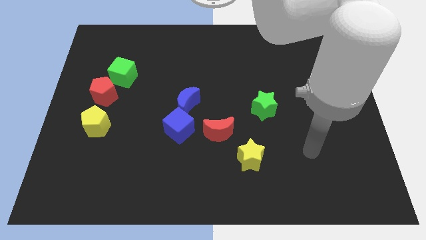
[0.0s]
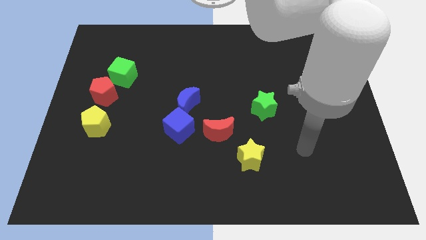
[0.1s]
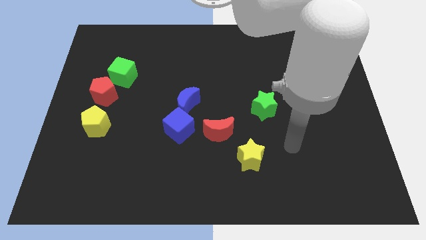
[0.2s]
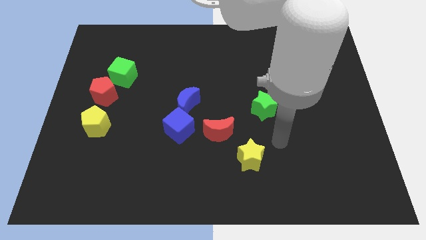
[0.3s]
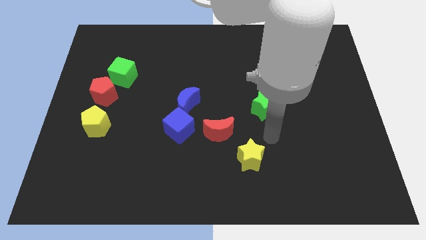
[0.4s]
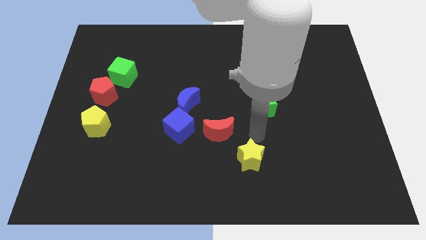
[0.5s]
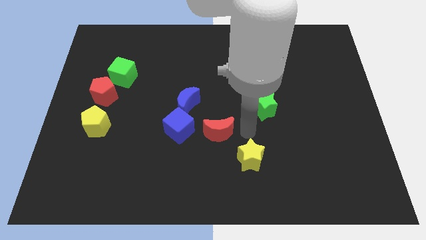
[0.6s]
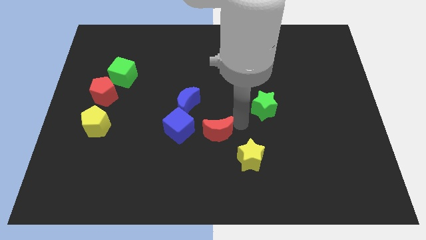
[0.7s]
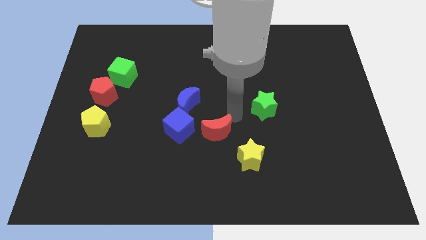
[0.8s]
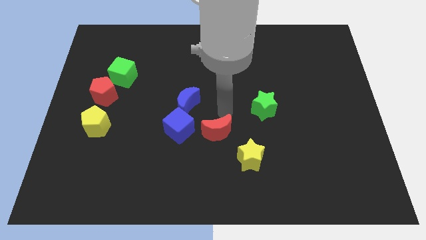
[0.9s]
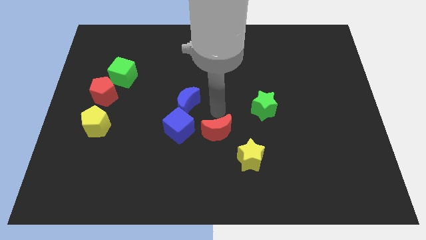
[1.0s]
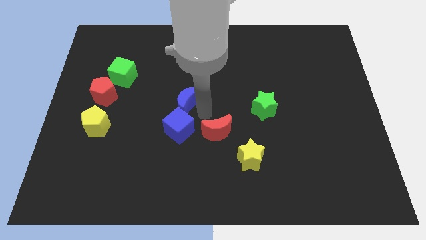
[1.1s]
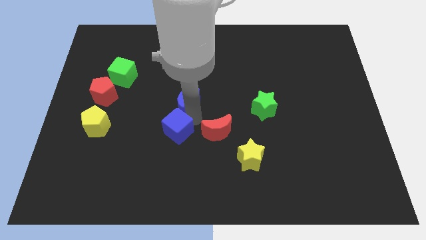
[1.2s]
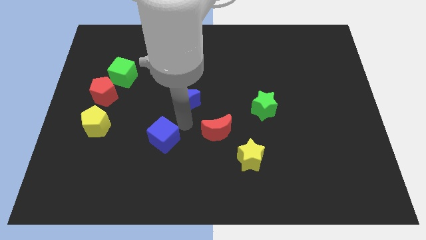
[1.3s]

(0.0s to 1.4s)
pull the blue moon apart from the blue cube

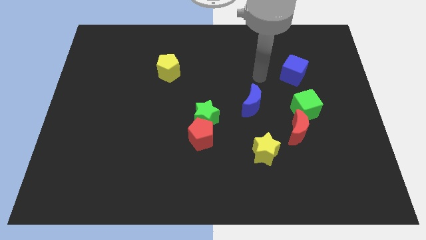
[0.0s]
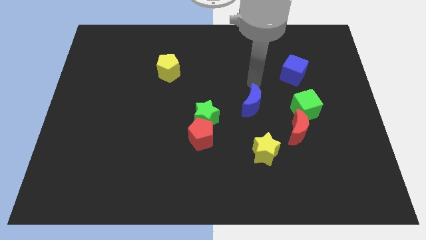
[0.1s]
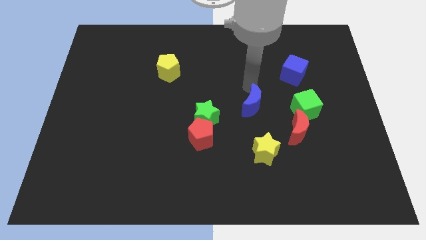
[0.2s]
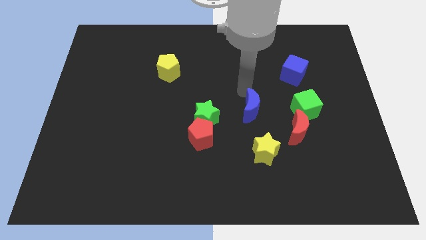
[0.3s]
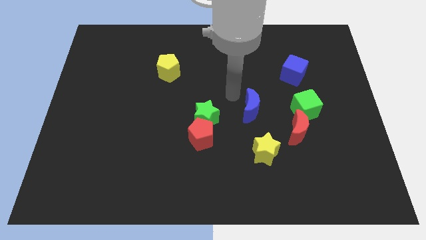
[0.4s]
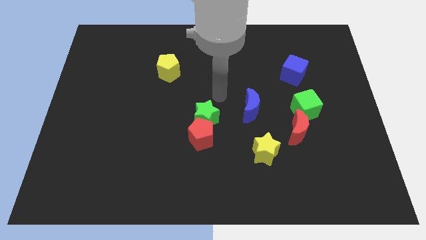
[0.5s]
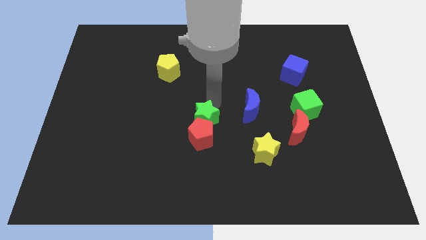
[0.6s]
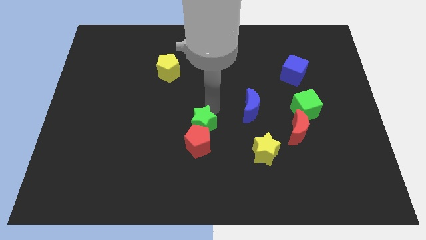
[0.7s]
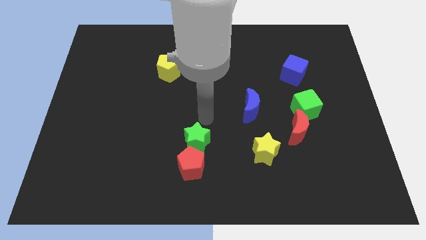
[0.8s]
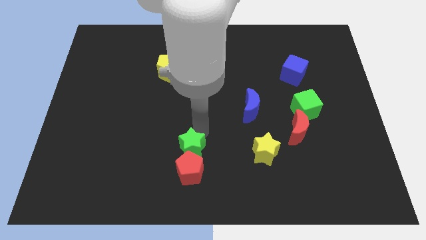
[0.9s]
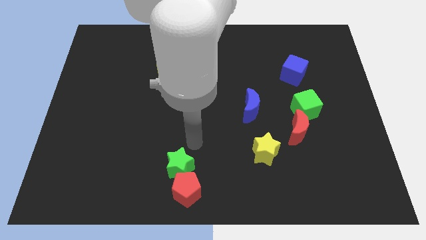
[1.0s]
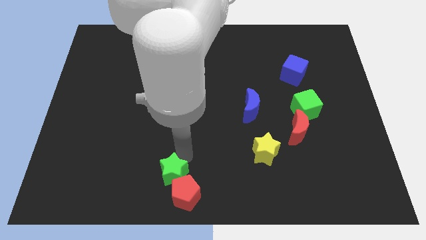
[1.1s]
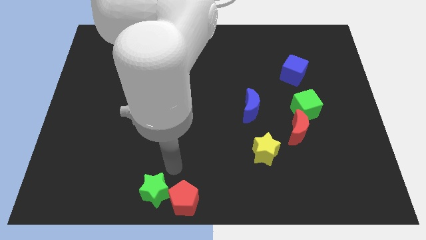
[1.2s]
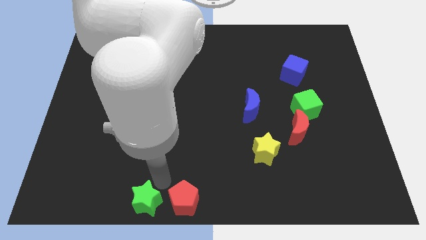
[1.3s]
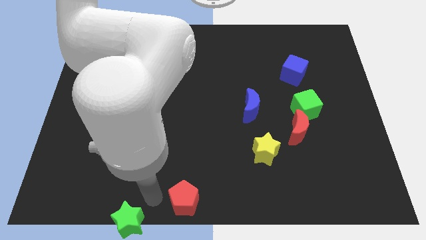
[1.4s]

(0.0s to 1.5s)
move the red pentagon away from the green star

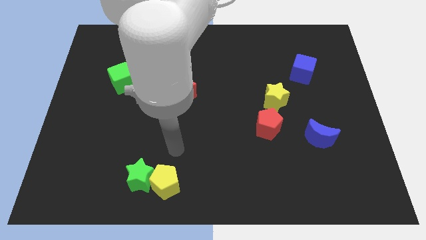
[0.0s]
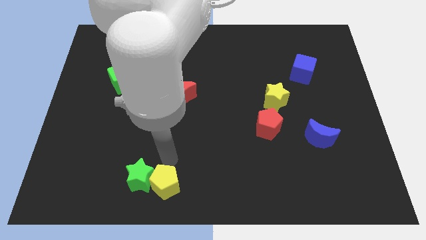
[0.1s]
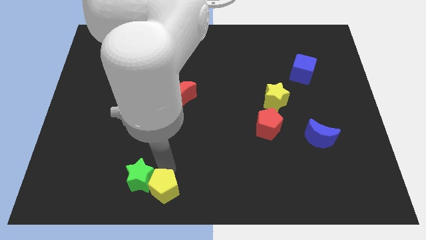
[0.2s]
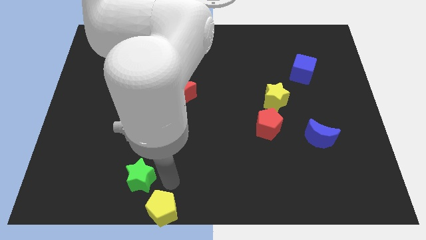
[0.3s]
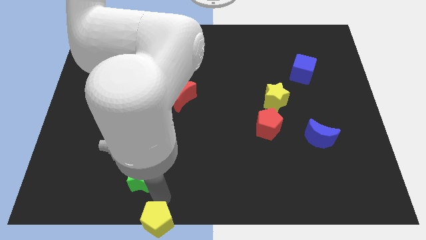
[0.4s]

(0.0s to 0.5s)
separate the green star from the yellow pentagon

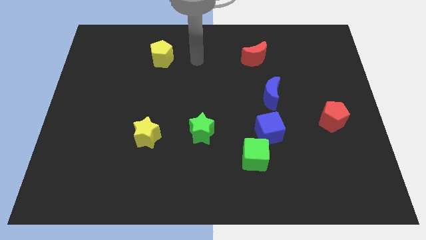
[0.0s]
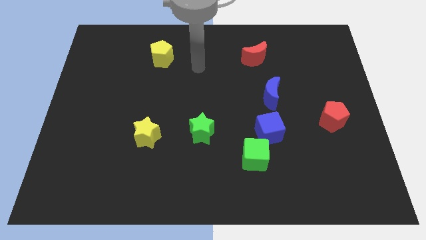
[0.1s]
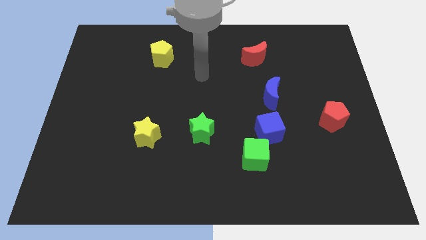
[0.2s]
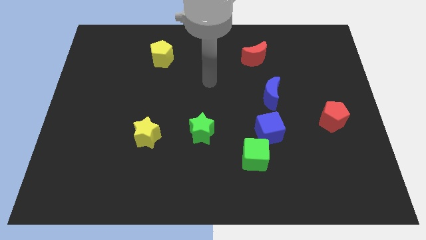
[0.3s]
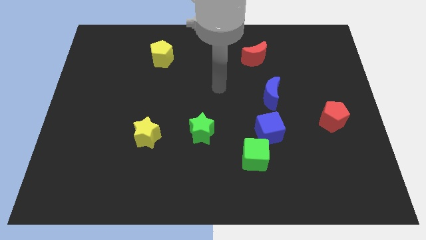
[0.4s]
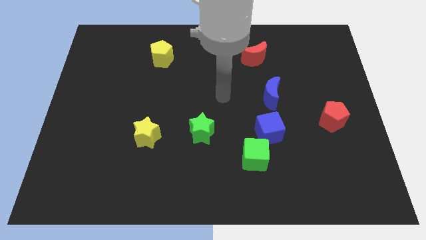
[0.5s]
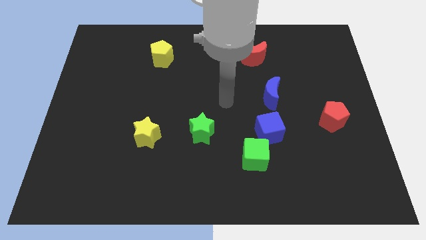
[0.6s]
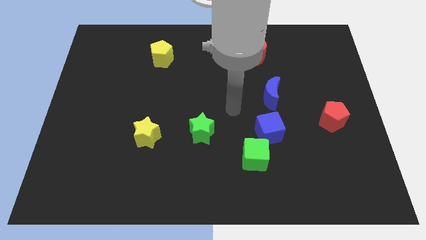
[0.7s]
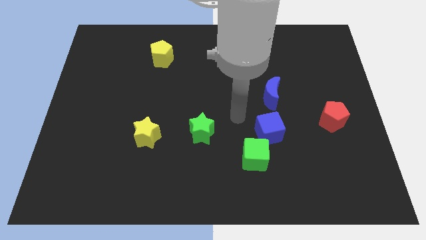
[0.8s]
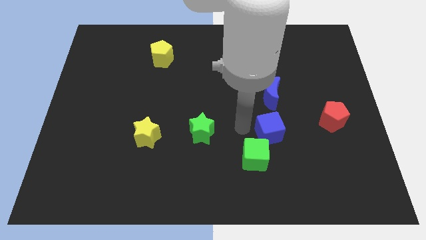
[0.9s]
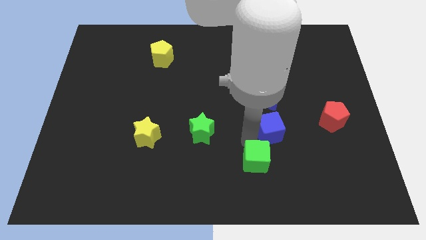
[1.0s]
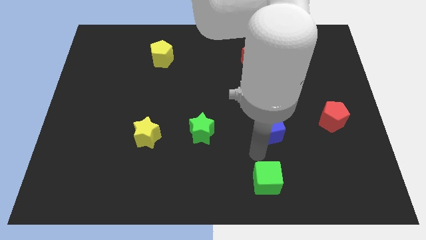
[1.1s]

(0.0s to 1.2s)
pull the blue cube apart from the green cube

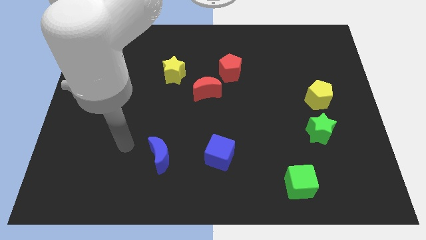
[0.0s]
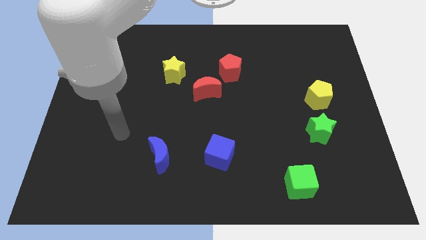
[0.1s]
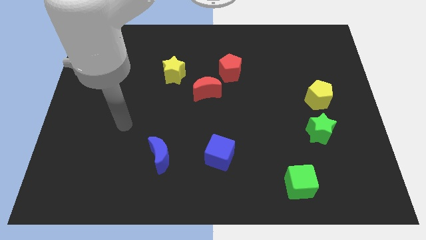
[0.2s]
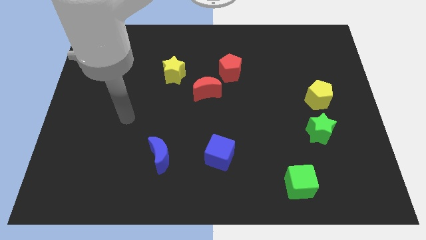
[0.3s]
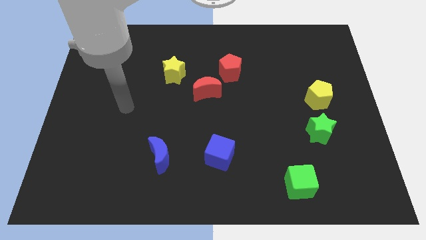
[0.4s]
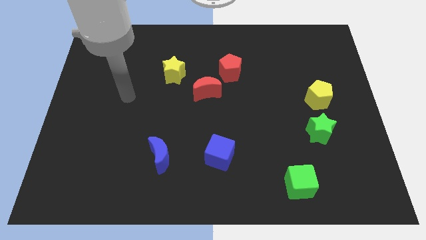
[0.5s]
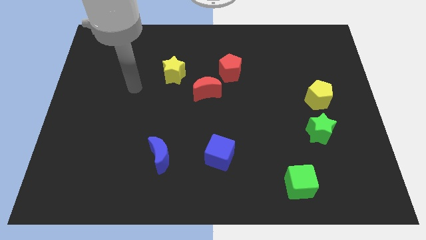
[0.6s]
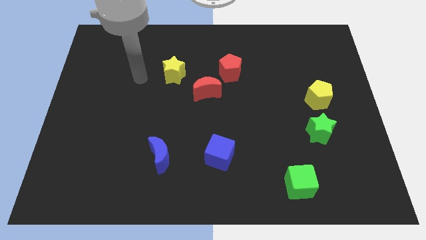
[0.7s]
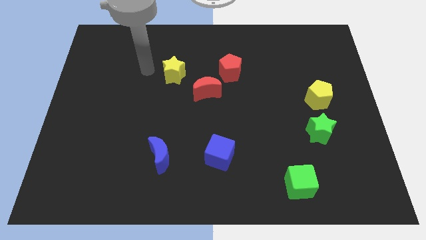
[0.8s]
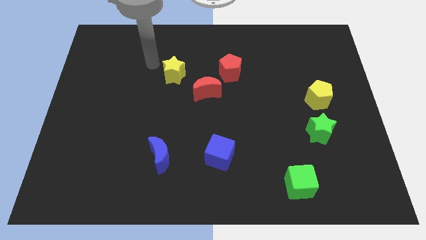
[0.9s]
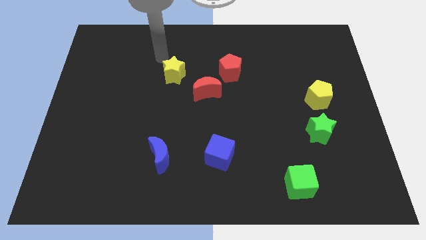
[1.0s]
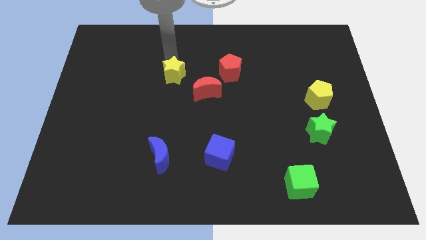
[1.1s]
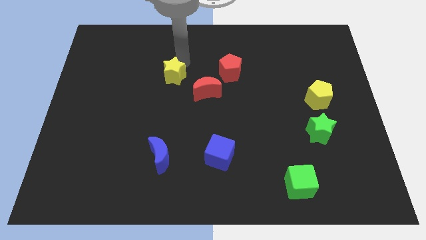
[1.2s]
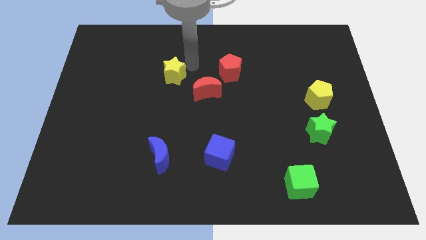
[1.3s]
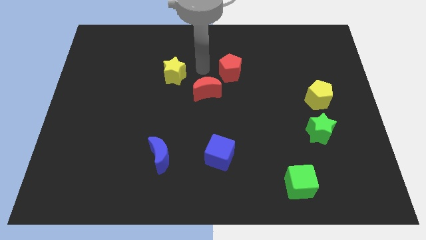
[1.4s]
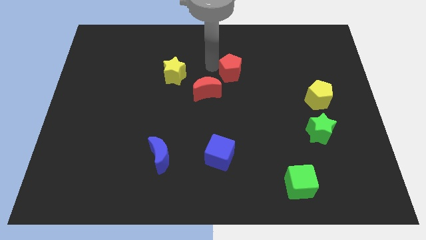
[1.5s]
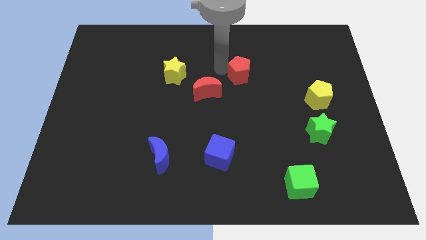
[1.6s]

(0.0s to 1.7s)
pull the red moon apart from the red pentagon

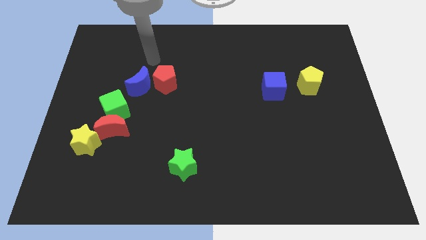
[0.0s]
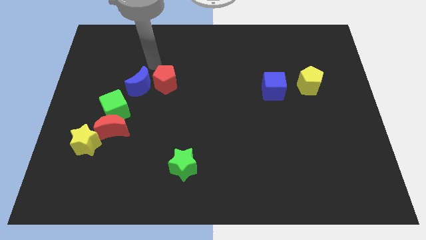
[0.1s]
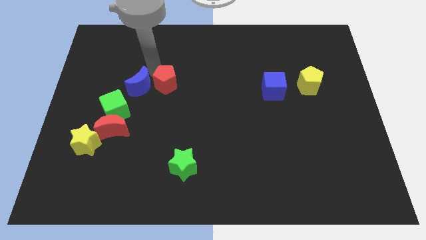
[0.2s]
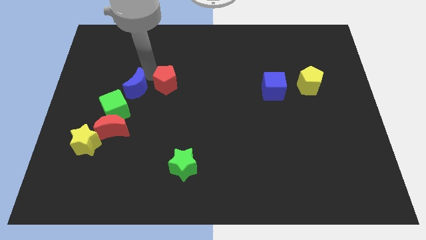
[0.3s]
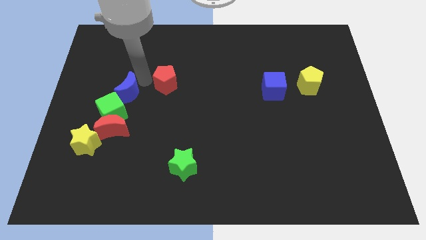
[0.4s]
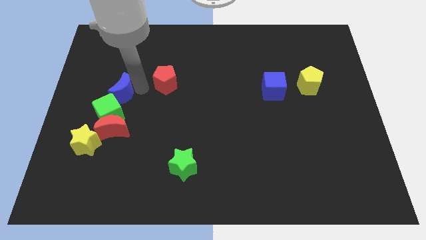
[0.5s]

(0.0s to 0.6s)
separate the red pentagon from the blue moon

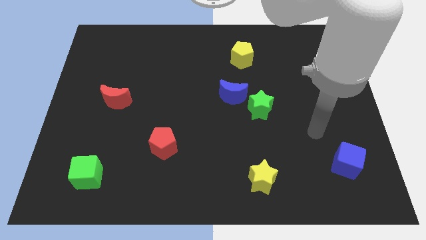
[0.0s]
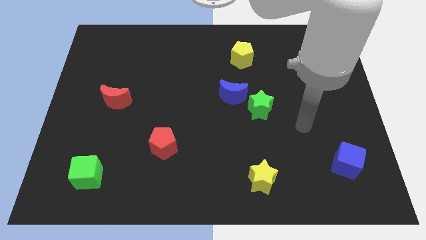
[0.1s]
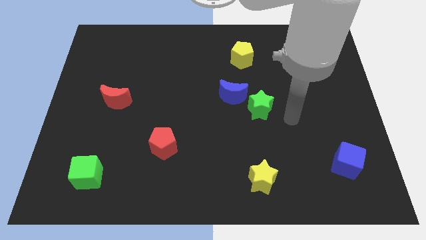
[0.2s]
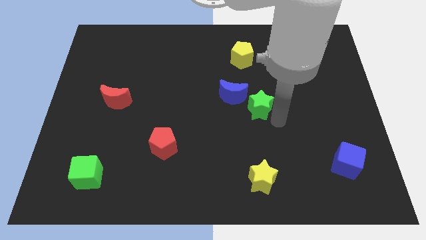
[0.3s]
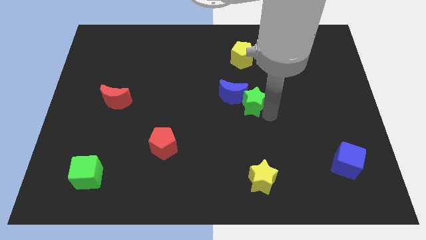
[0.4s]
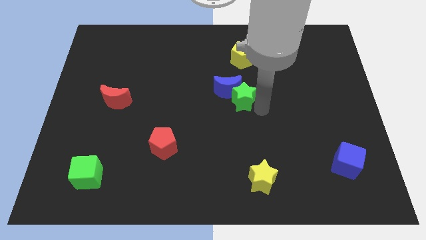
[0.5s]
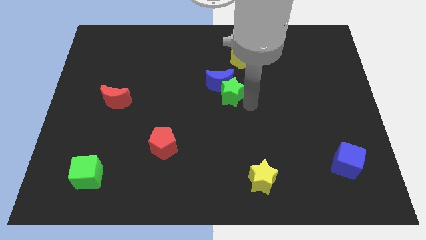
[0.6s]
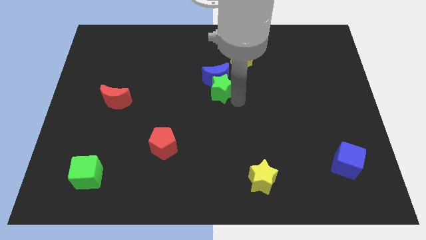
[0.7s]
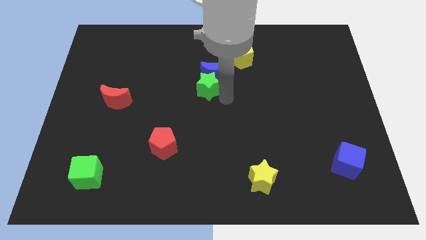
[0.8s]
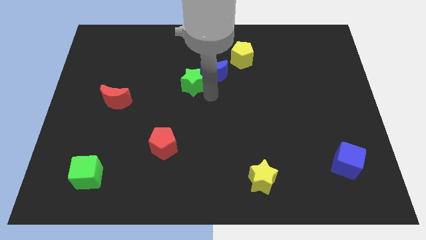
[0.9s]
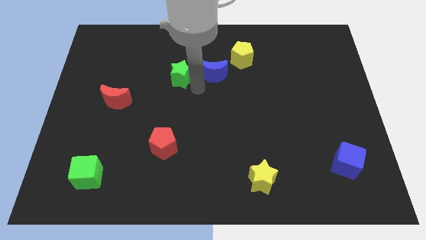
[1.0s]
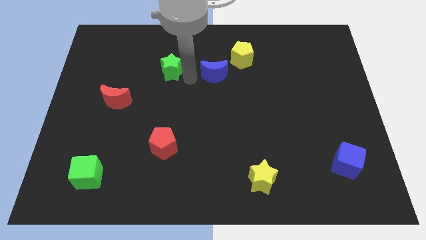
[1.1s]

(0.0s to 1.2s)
move the blue moon away from the green star

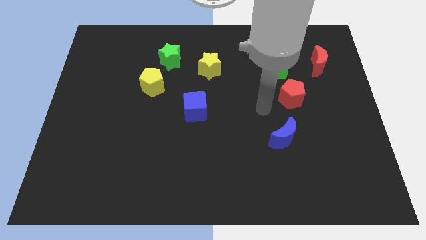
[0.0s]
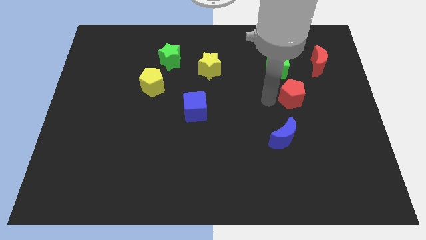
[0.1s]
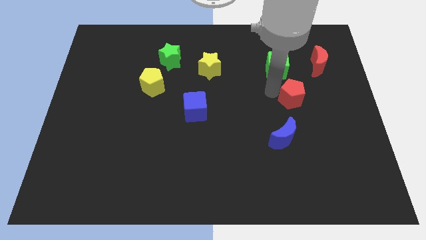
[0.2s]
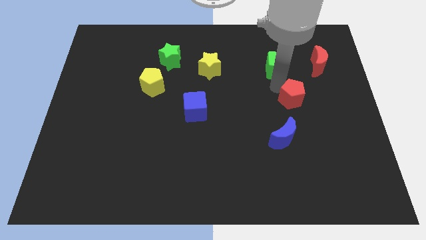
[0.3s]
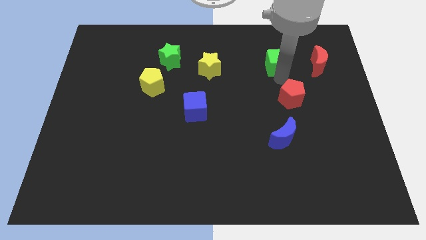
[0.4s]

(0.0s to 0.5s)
separate the red pentagon from the green cube

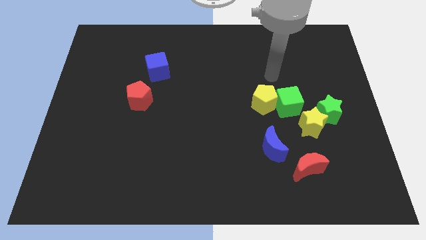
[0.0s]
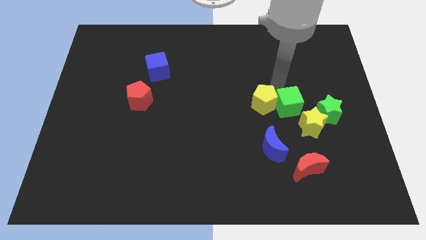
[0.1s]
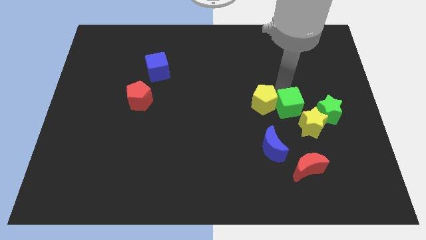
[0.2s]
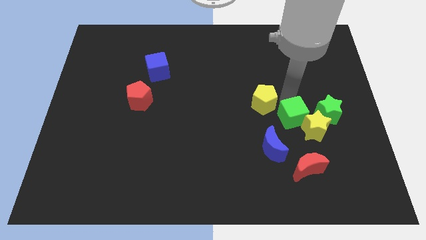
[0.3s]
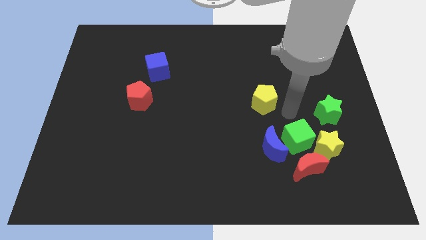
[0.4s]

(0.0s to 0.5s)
separate the yellow pentagon from the green cube

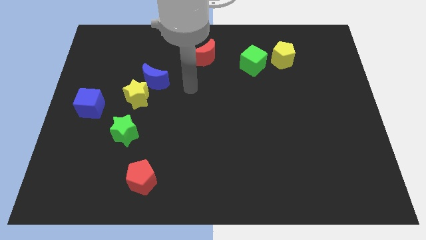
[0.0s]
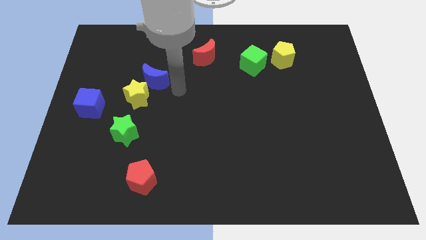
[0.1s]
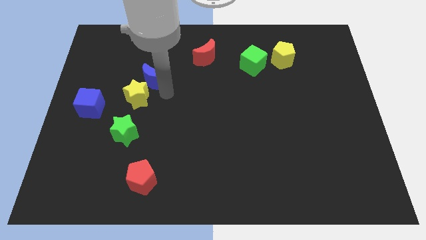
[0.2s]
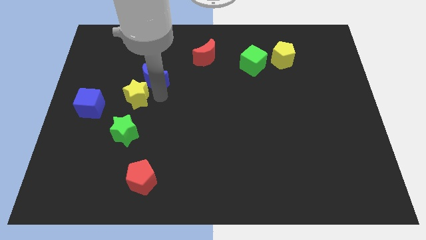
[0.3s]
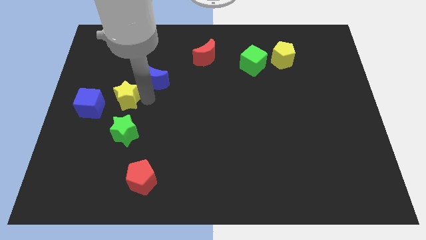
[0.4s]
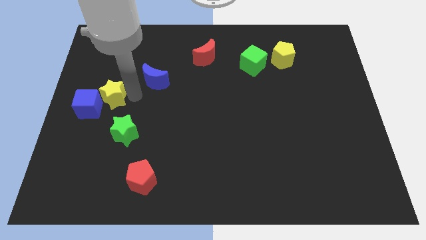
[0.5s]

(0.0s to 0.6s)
separate the blue moon from the yellow star
